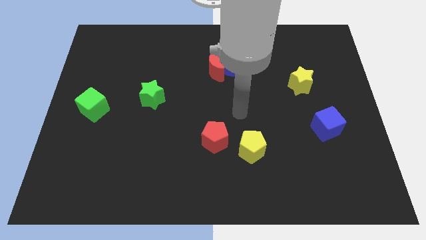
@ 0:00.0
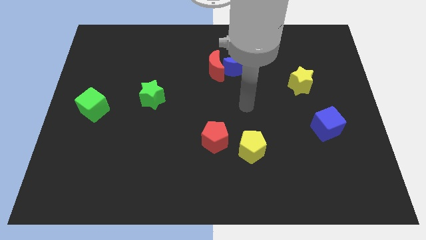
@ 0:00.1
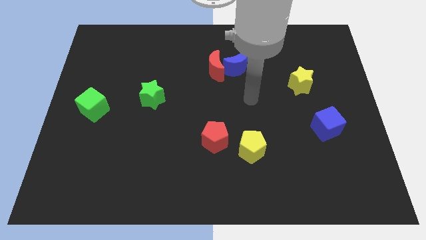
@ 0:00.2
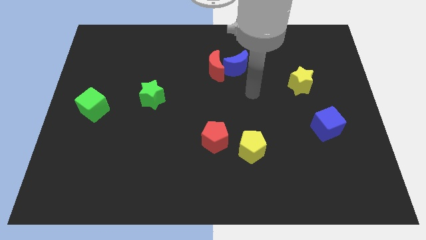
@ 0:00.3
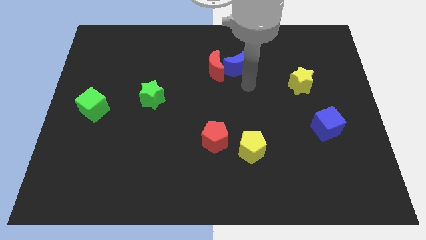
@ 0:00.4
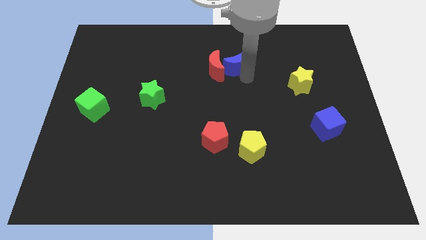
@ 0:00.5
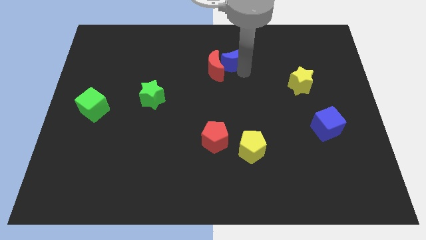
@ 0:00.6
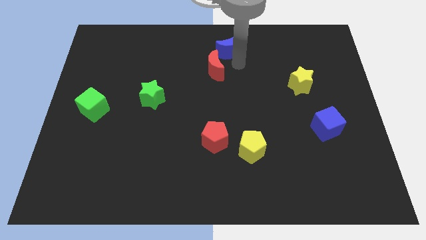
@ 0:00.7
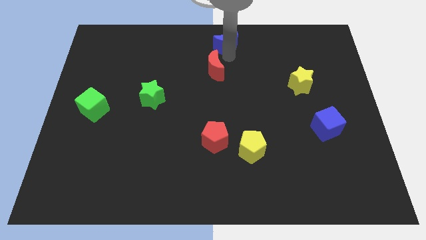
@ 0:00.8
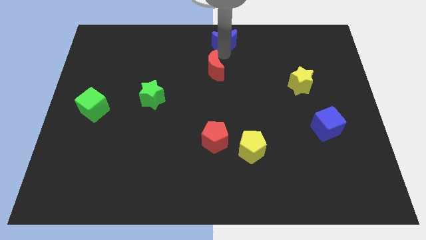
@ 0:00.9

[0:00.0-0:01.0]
separate the red moon from the blue moon

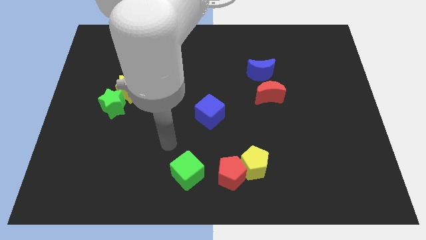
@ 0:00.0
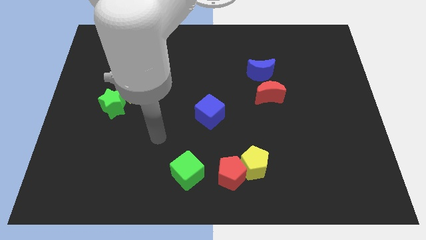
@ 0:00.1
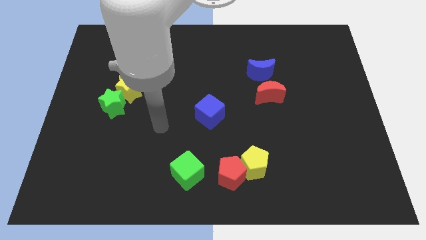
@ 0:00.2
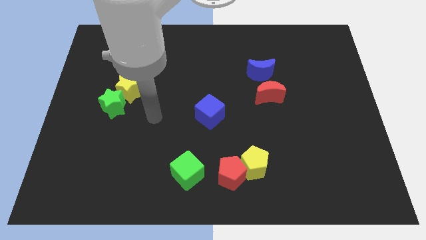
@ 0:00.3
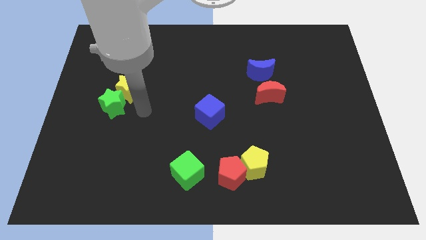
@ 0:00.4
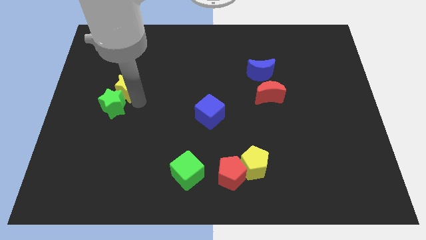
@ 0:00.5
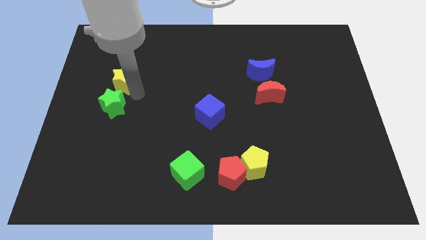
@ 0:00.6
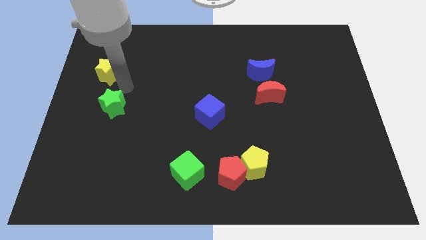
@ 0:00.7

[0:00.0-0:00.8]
pull the green star apart from the yellow star

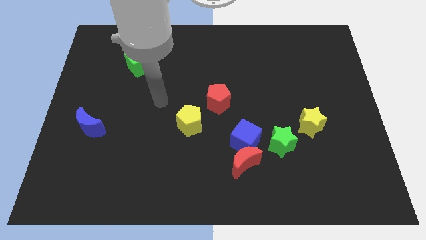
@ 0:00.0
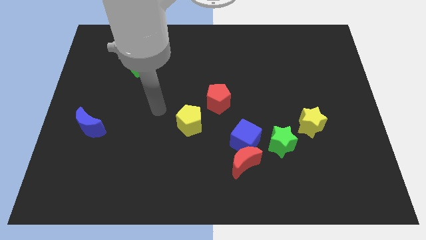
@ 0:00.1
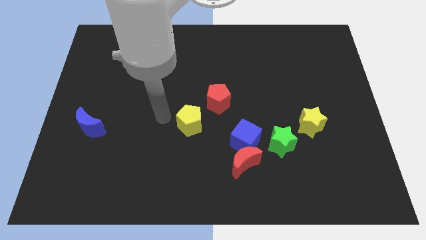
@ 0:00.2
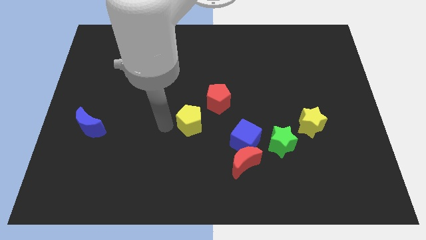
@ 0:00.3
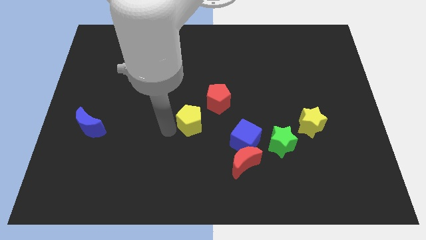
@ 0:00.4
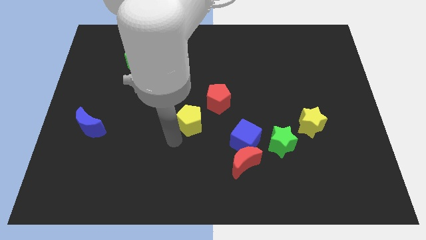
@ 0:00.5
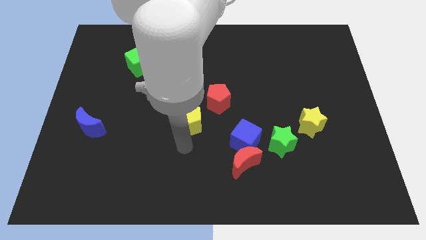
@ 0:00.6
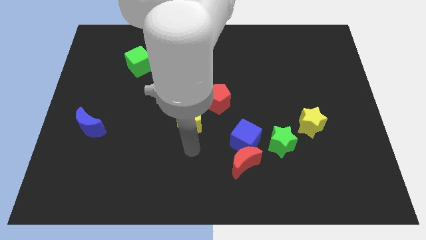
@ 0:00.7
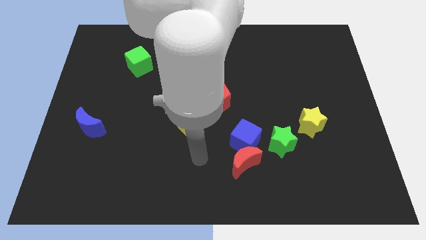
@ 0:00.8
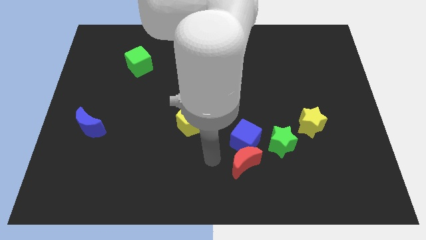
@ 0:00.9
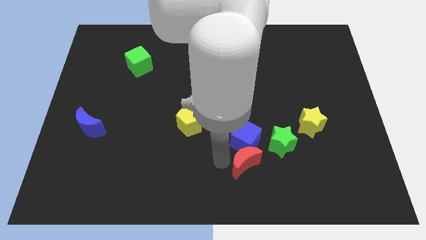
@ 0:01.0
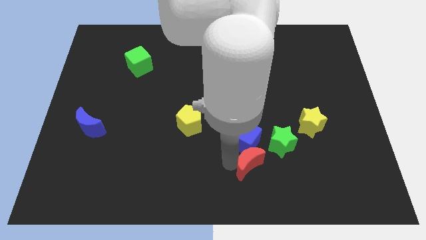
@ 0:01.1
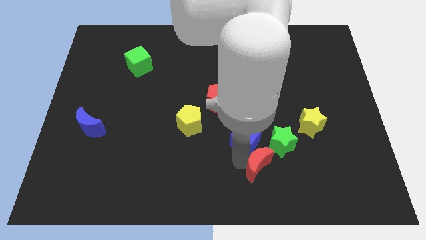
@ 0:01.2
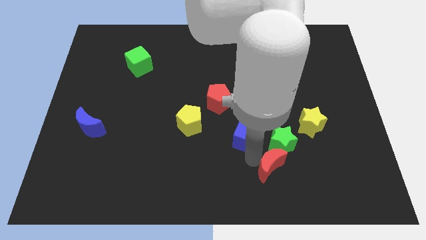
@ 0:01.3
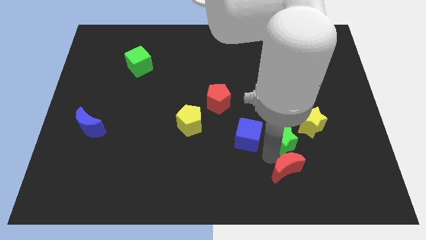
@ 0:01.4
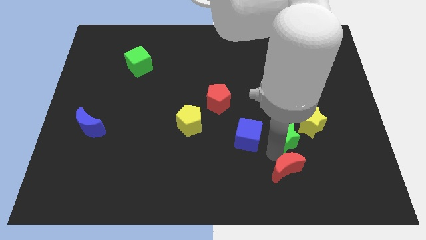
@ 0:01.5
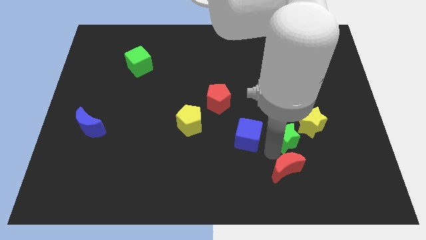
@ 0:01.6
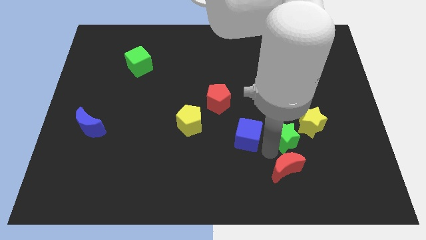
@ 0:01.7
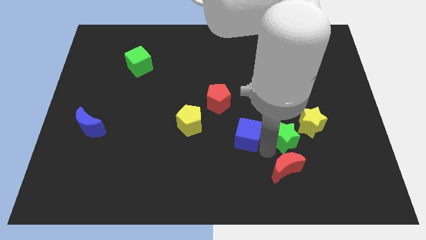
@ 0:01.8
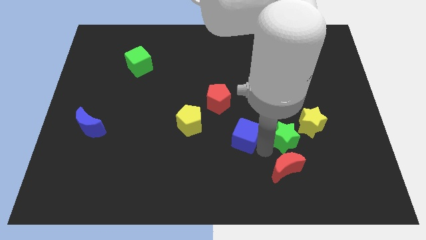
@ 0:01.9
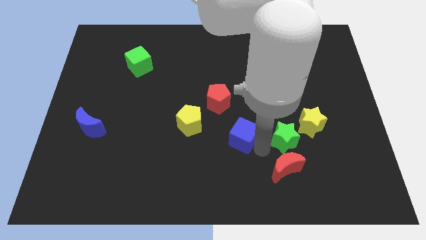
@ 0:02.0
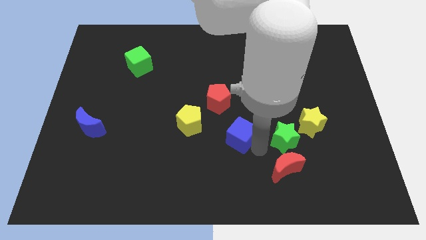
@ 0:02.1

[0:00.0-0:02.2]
separate the blue cube from the red moon and green star

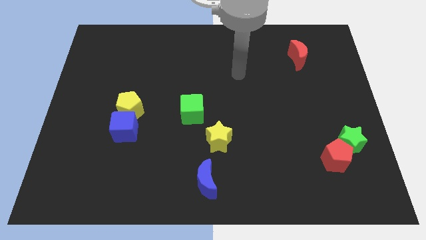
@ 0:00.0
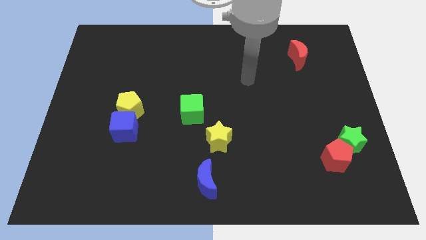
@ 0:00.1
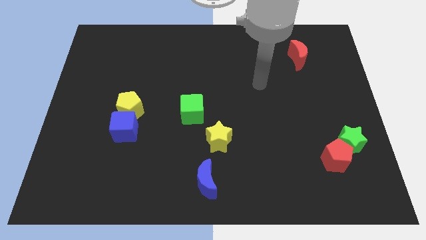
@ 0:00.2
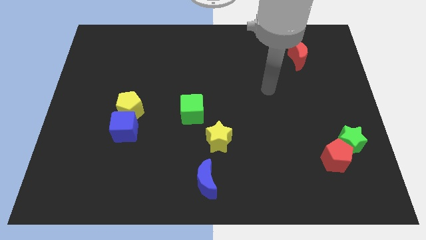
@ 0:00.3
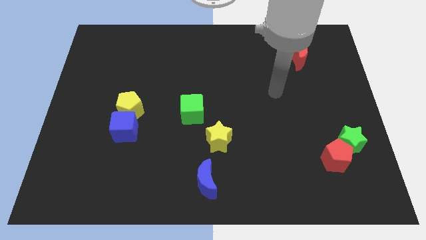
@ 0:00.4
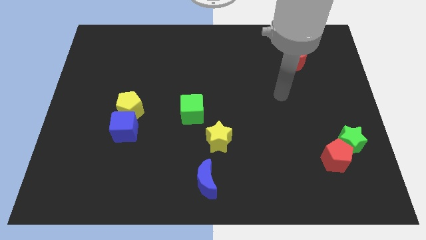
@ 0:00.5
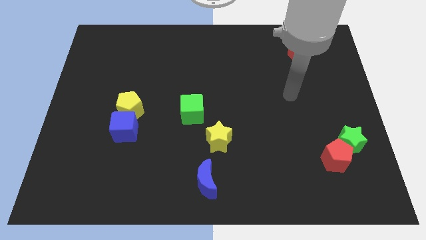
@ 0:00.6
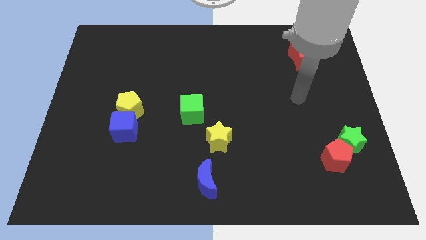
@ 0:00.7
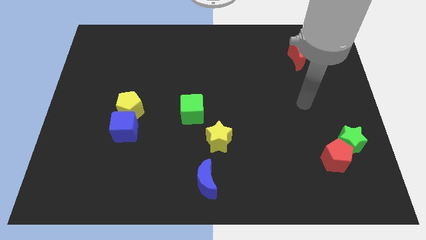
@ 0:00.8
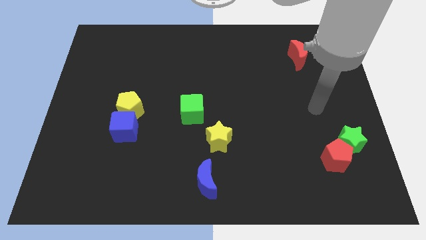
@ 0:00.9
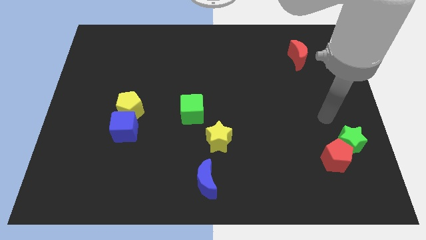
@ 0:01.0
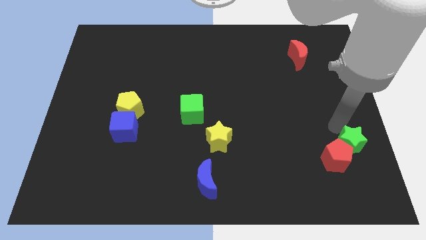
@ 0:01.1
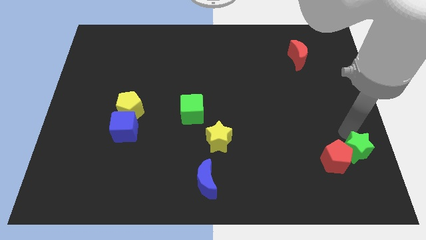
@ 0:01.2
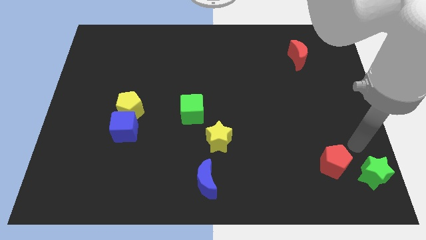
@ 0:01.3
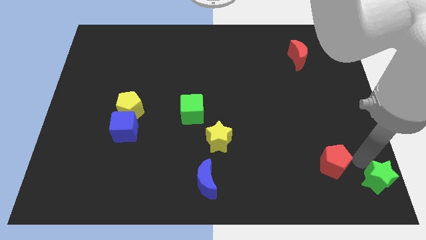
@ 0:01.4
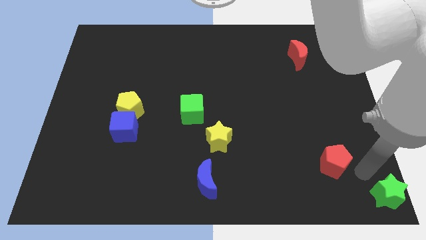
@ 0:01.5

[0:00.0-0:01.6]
move the red pentagon away from the green star

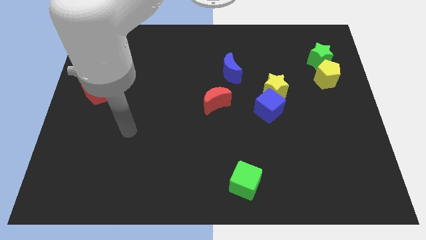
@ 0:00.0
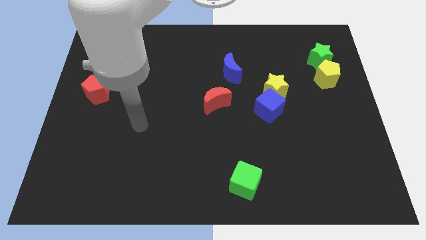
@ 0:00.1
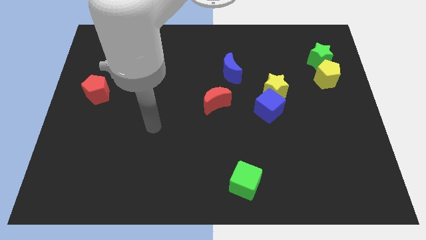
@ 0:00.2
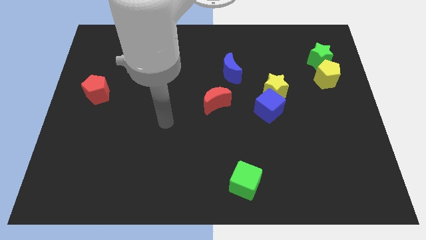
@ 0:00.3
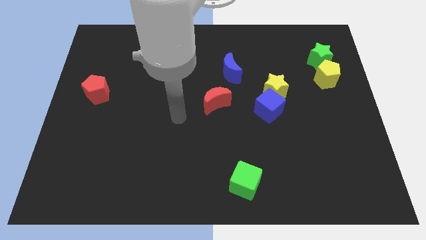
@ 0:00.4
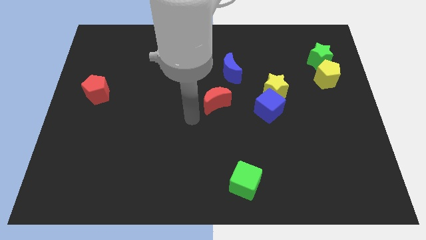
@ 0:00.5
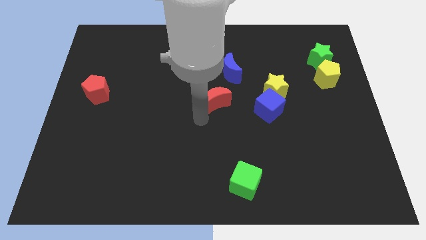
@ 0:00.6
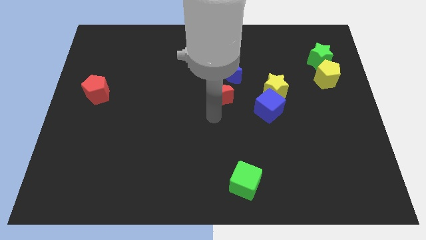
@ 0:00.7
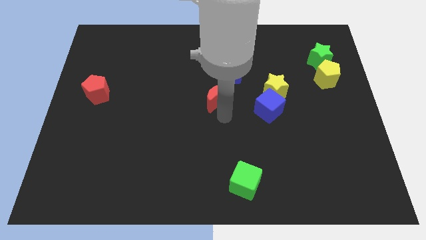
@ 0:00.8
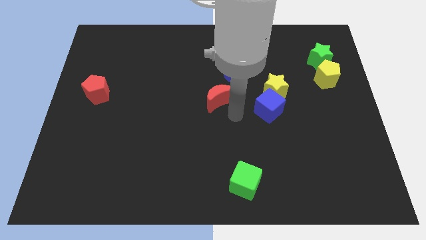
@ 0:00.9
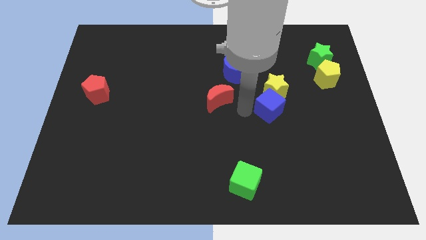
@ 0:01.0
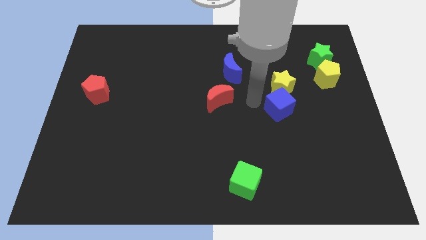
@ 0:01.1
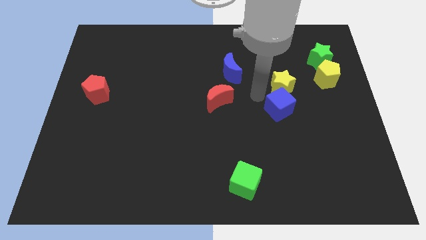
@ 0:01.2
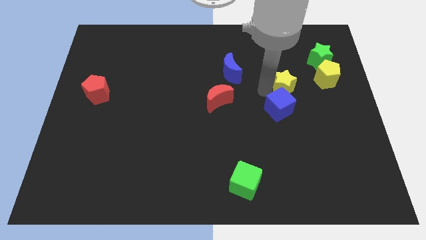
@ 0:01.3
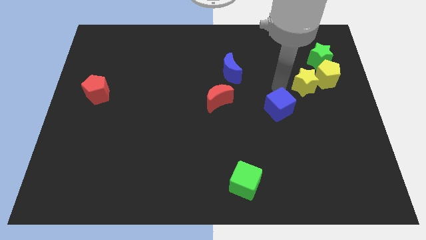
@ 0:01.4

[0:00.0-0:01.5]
move the blue cube away from the yellow star

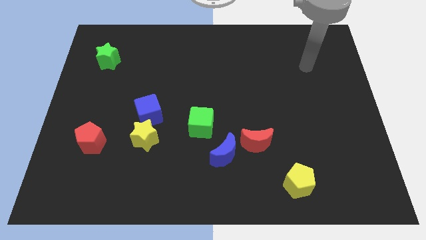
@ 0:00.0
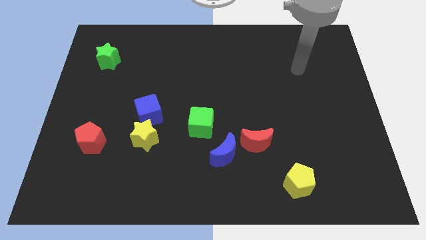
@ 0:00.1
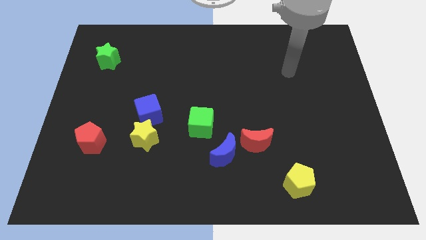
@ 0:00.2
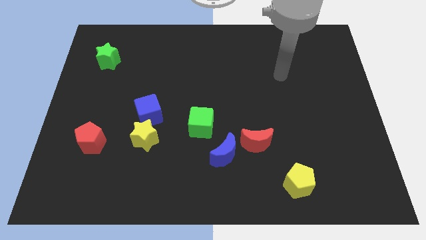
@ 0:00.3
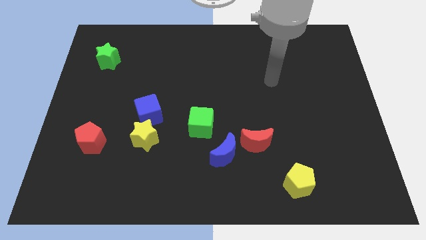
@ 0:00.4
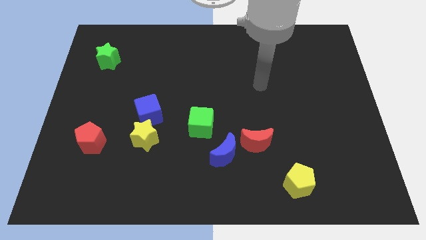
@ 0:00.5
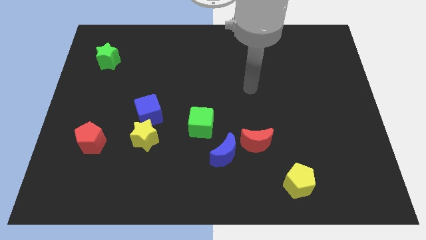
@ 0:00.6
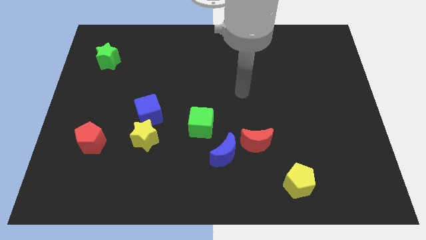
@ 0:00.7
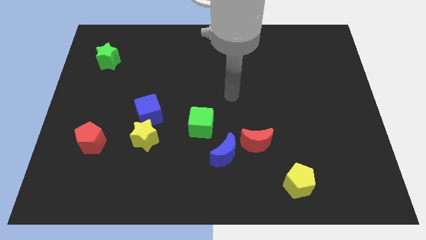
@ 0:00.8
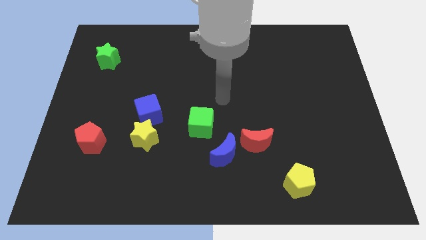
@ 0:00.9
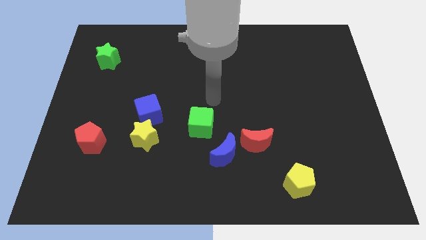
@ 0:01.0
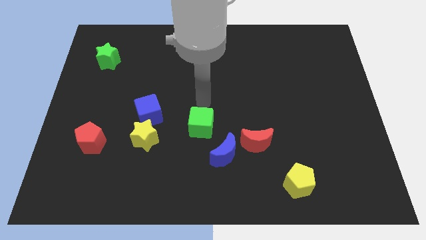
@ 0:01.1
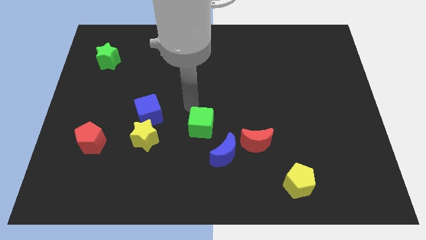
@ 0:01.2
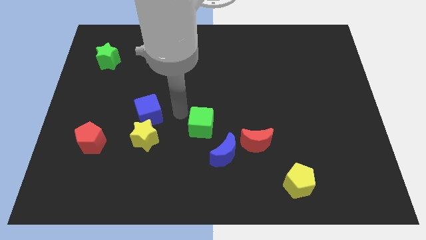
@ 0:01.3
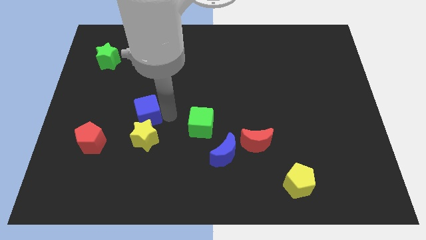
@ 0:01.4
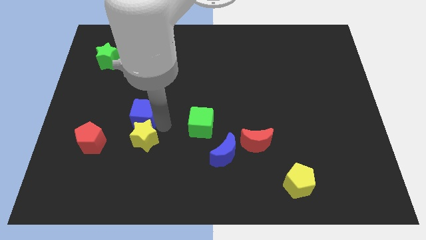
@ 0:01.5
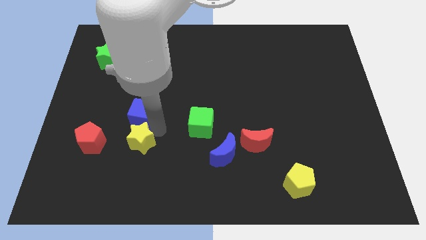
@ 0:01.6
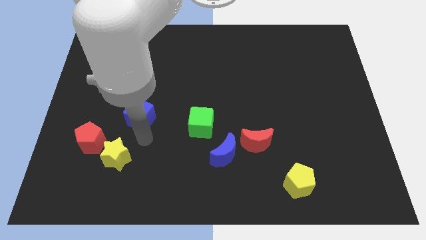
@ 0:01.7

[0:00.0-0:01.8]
separate the blue cube from the yellow star

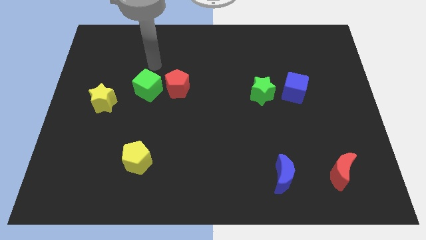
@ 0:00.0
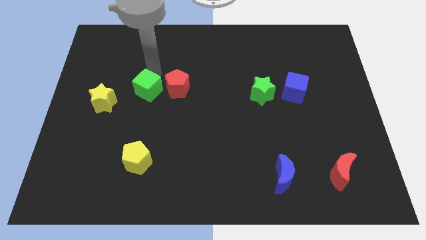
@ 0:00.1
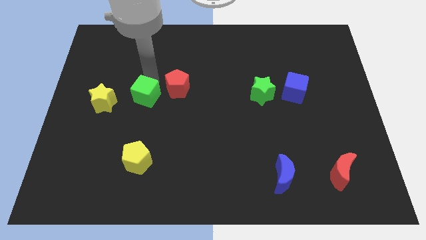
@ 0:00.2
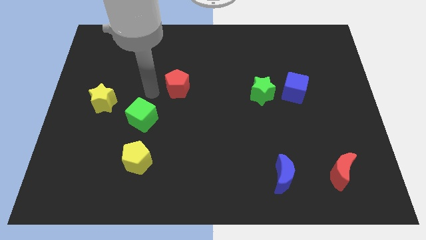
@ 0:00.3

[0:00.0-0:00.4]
pull the red pentagon apart from the green cube
